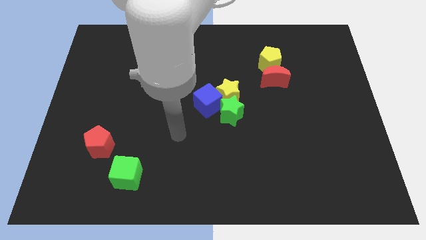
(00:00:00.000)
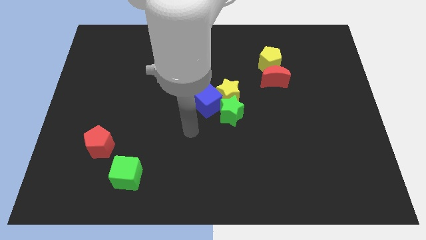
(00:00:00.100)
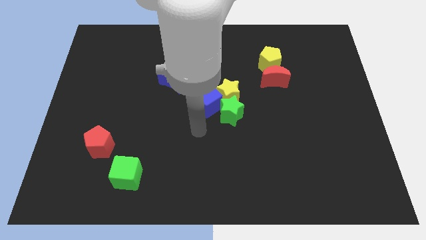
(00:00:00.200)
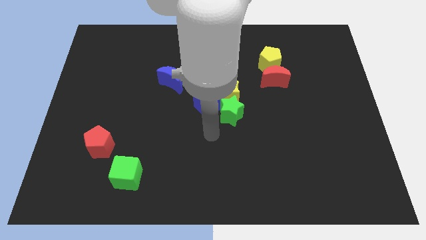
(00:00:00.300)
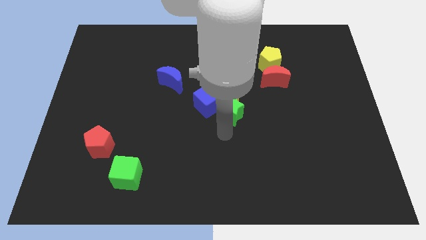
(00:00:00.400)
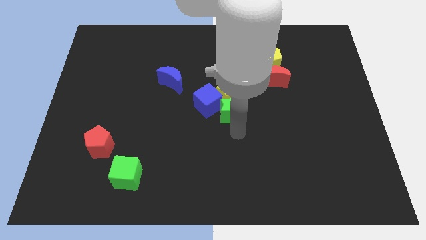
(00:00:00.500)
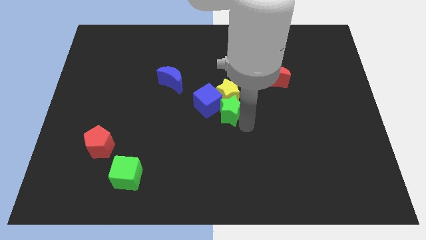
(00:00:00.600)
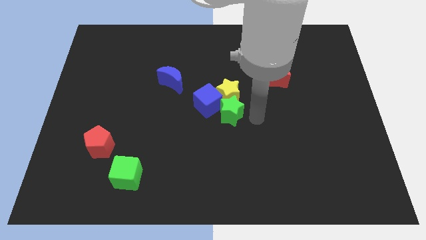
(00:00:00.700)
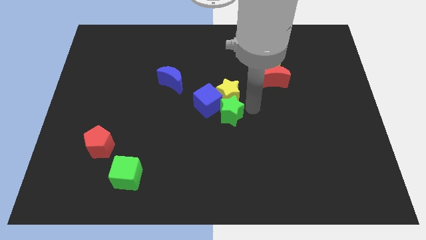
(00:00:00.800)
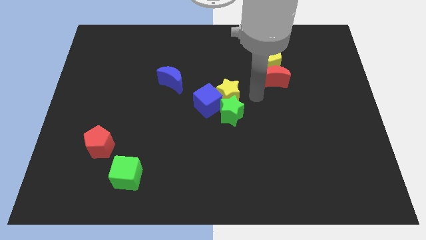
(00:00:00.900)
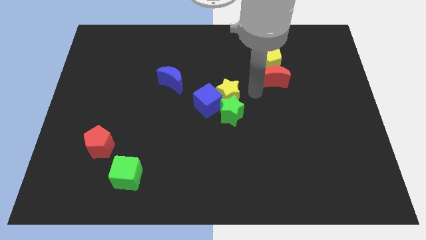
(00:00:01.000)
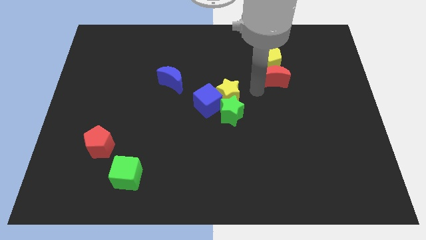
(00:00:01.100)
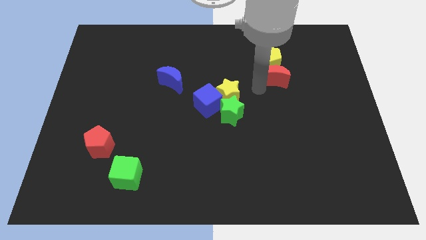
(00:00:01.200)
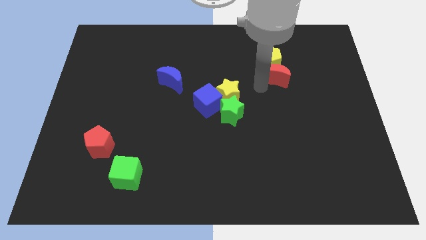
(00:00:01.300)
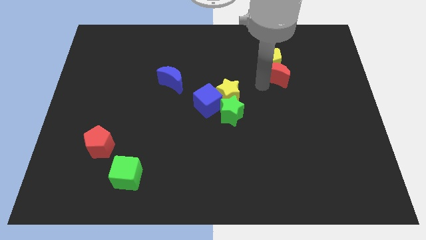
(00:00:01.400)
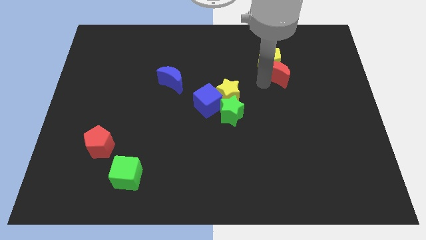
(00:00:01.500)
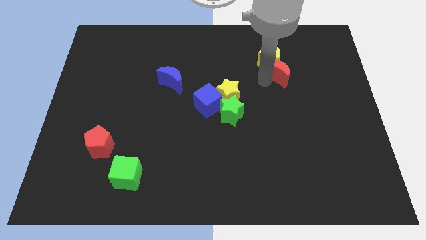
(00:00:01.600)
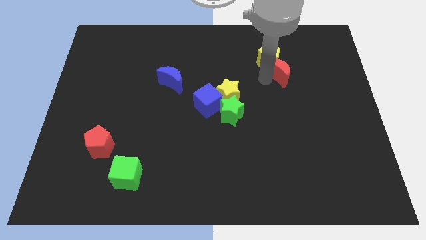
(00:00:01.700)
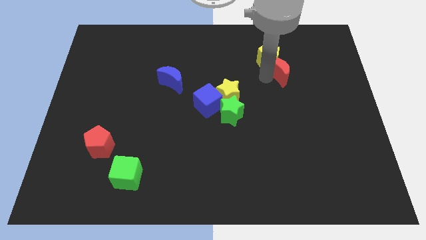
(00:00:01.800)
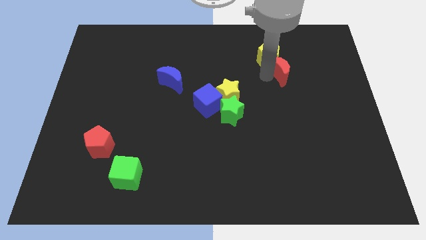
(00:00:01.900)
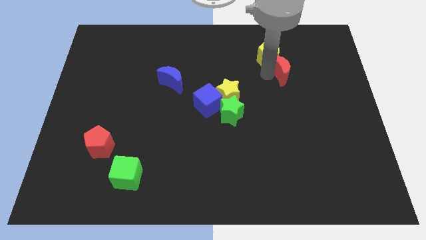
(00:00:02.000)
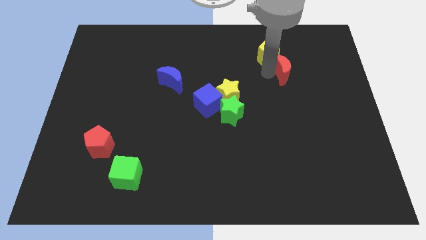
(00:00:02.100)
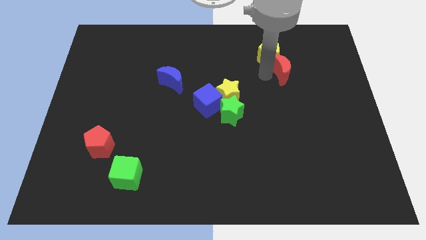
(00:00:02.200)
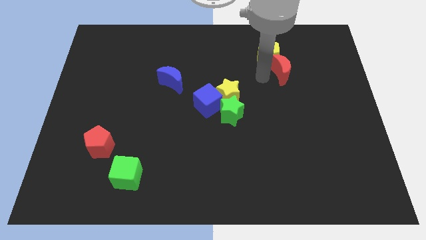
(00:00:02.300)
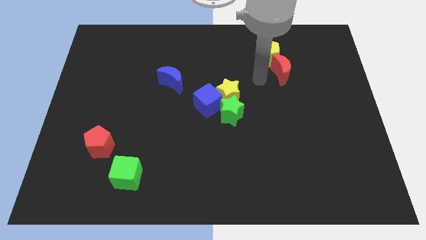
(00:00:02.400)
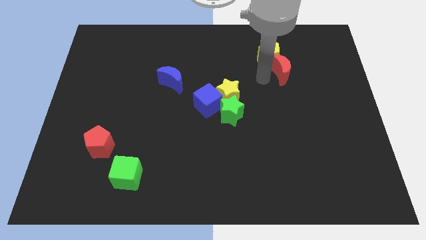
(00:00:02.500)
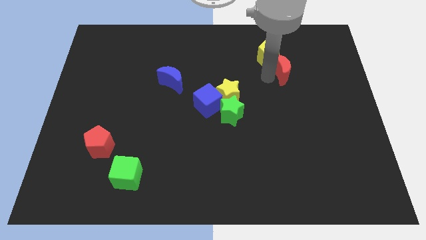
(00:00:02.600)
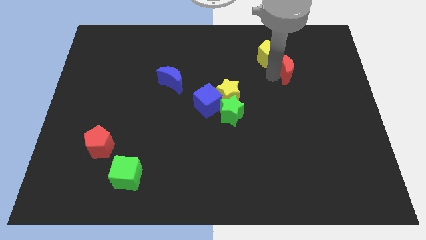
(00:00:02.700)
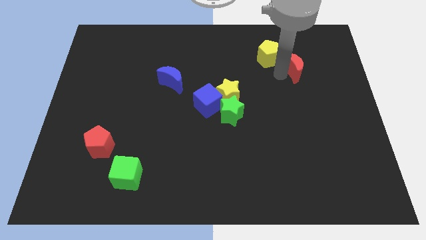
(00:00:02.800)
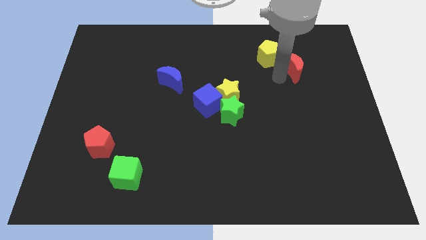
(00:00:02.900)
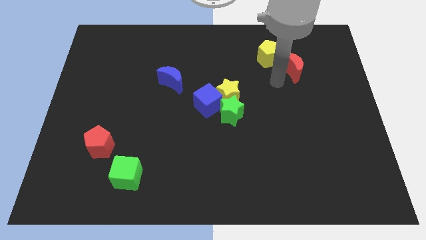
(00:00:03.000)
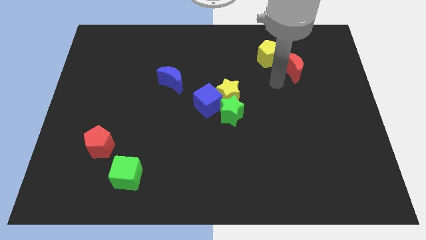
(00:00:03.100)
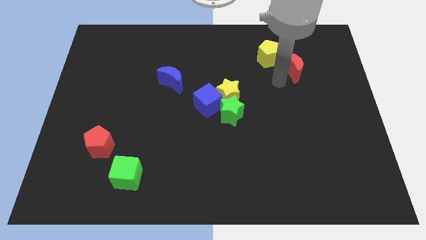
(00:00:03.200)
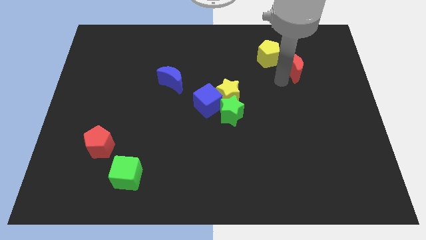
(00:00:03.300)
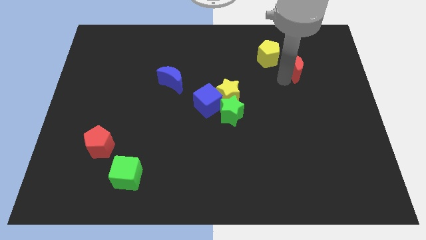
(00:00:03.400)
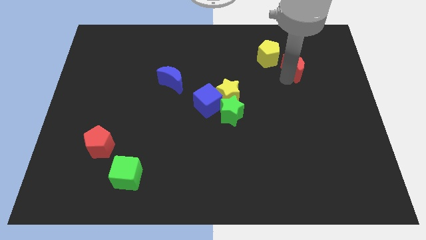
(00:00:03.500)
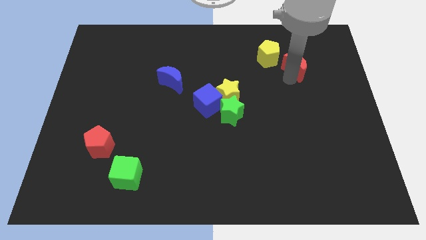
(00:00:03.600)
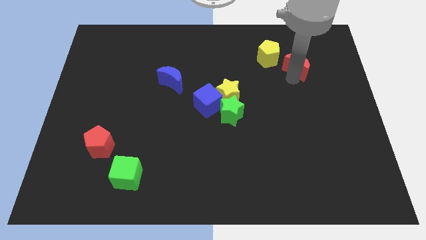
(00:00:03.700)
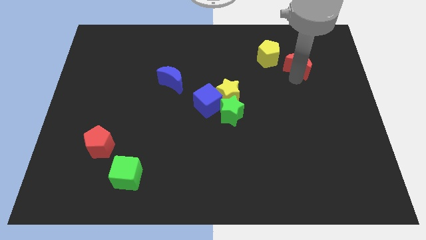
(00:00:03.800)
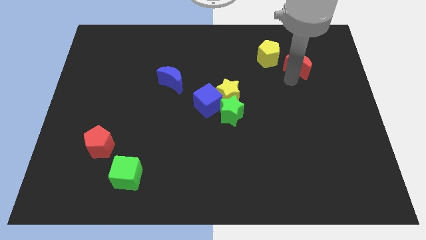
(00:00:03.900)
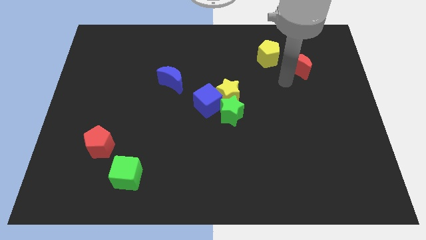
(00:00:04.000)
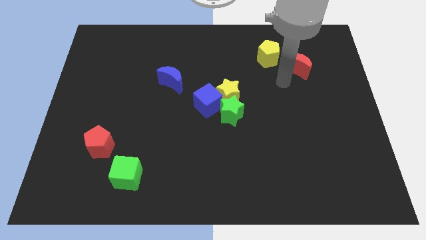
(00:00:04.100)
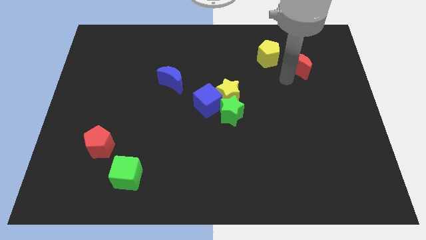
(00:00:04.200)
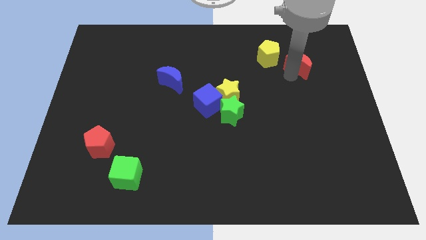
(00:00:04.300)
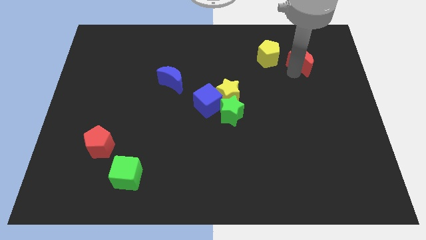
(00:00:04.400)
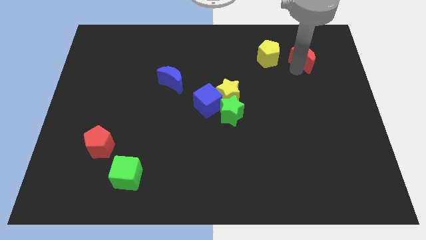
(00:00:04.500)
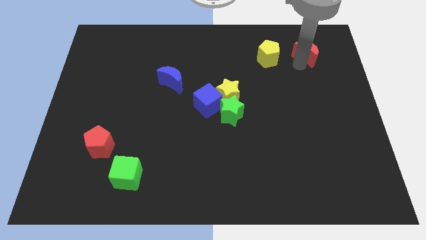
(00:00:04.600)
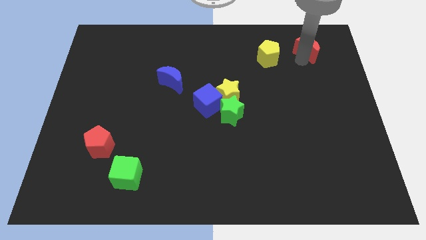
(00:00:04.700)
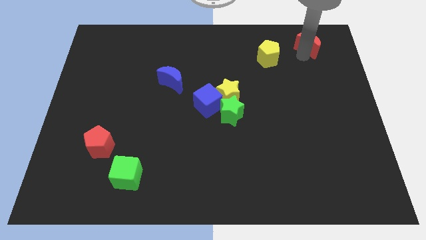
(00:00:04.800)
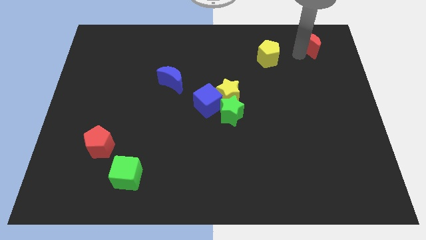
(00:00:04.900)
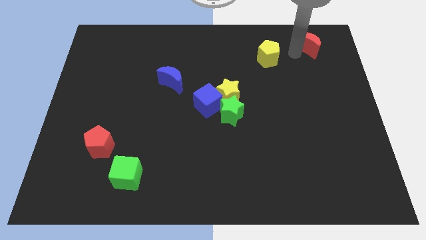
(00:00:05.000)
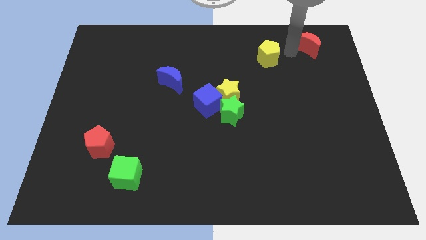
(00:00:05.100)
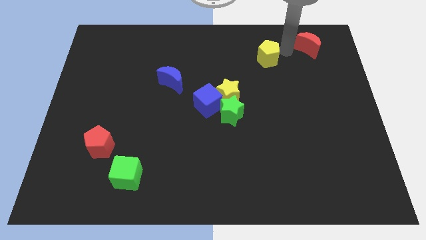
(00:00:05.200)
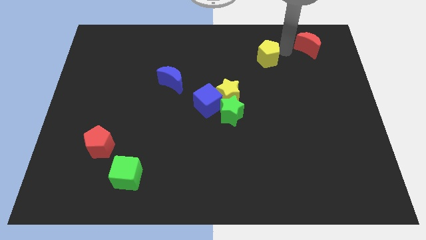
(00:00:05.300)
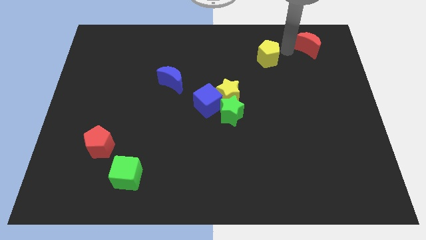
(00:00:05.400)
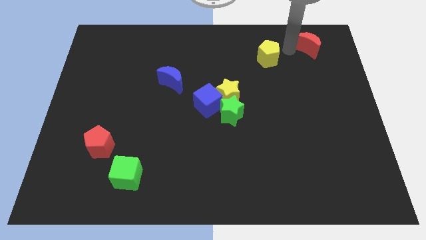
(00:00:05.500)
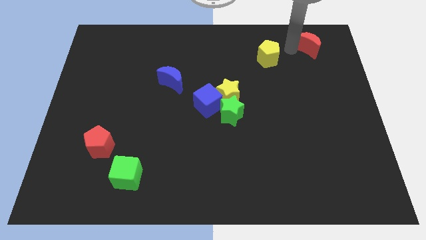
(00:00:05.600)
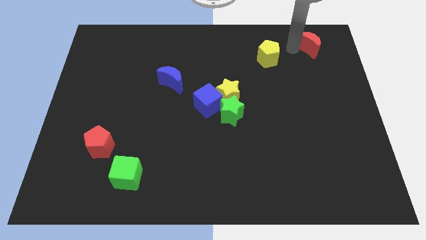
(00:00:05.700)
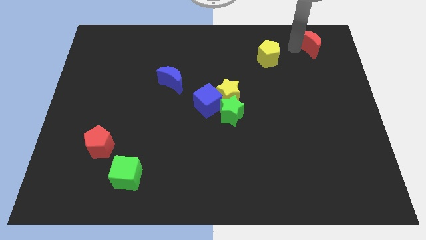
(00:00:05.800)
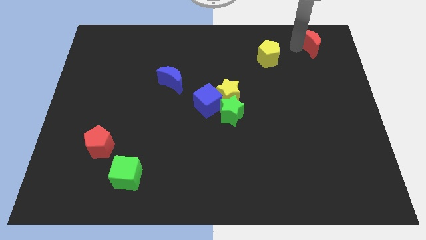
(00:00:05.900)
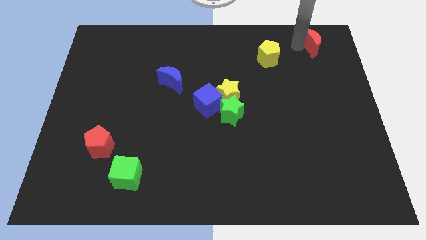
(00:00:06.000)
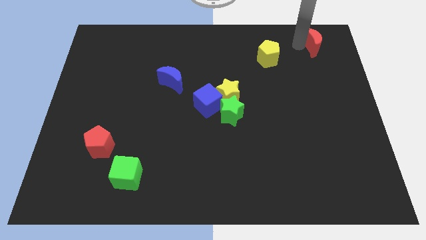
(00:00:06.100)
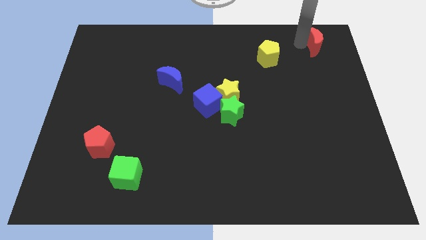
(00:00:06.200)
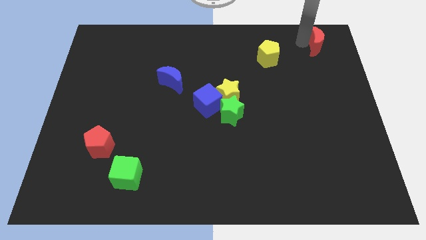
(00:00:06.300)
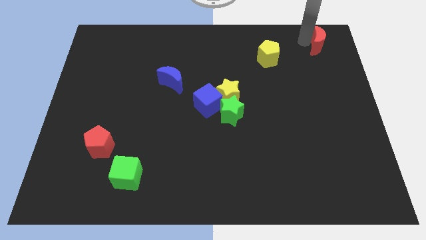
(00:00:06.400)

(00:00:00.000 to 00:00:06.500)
push the red moon to the top right corner
